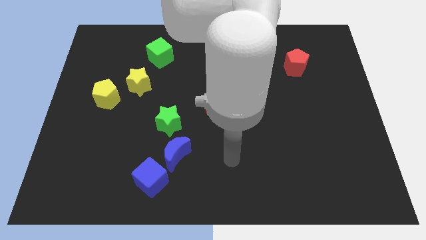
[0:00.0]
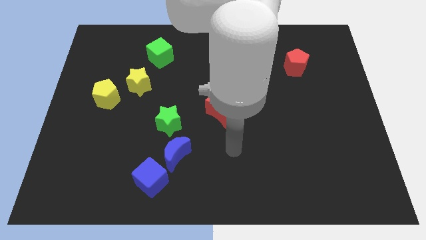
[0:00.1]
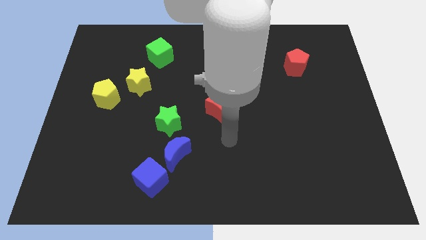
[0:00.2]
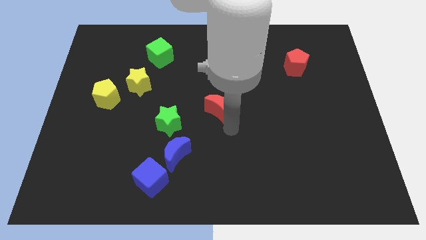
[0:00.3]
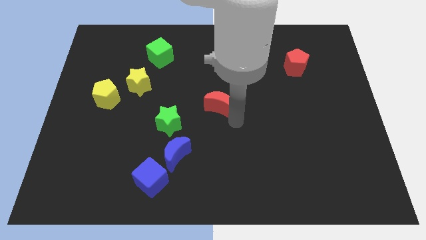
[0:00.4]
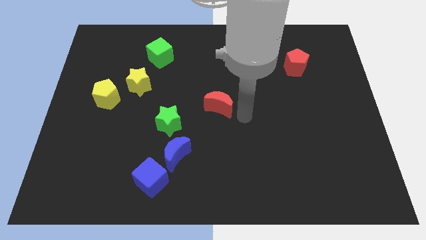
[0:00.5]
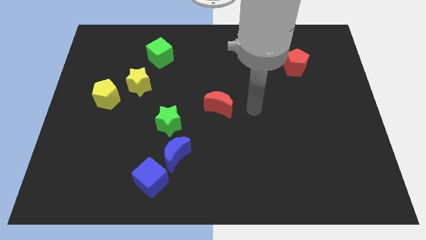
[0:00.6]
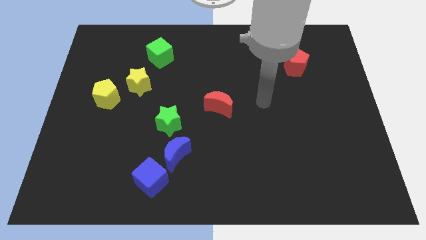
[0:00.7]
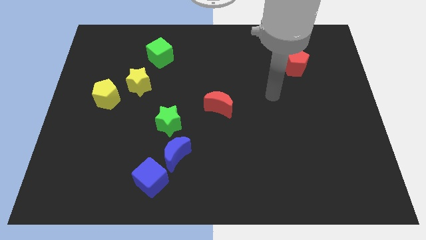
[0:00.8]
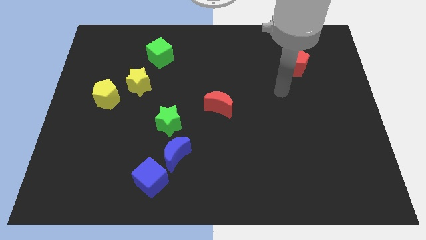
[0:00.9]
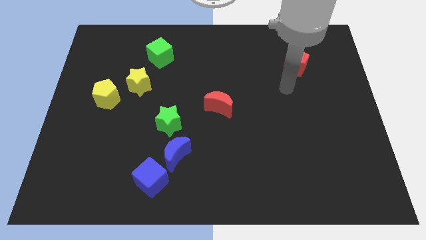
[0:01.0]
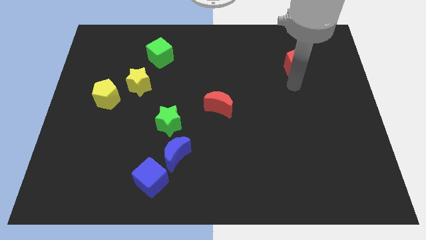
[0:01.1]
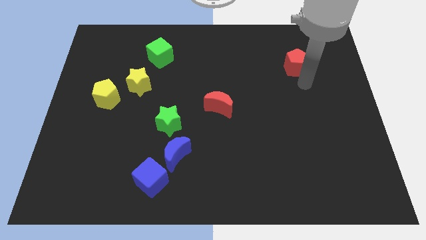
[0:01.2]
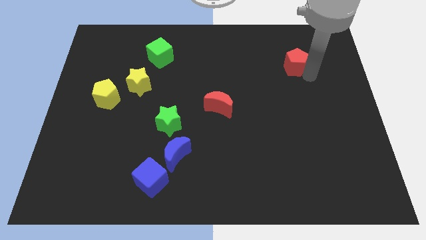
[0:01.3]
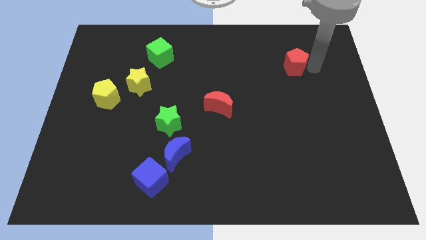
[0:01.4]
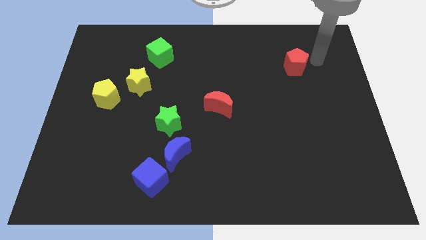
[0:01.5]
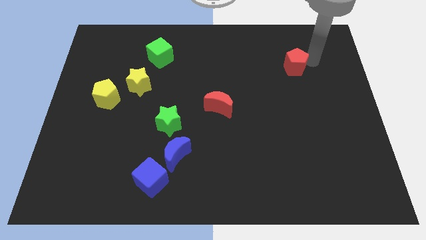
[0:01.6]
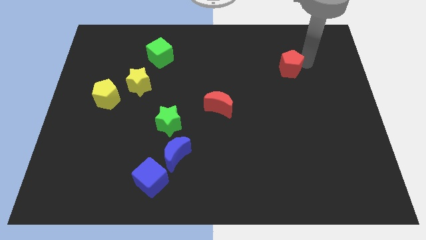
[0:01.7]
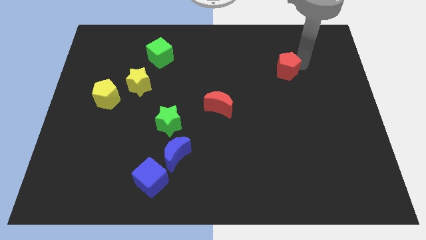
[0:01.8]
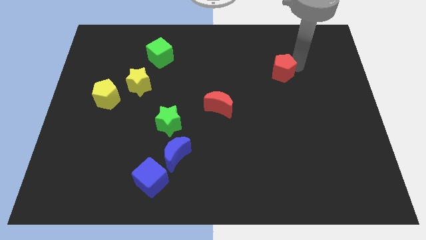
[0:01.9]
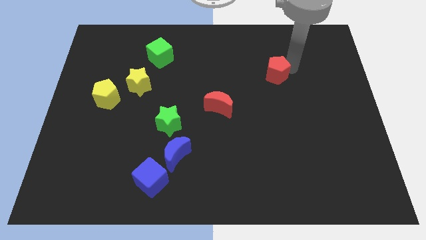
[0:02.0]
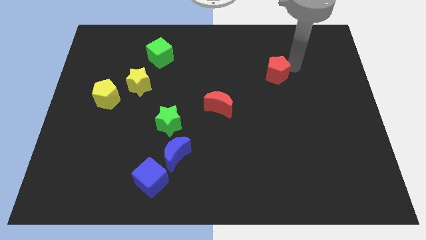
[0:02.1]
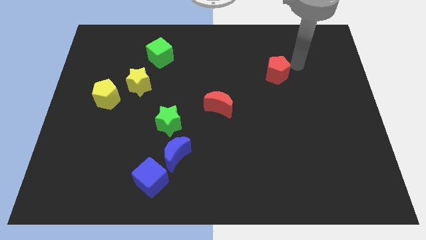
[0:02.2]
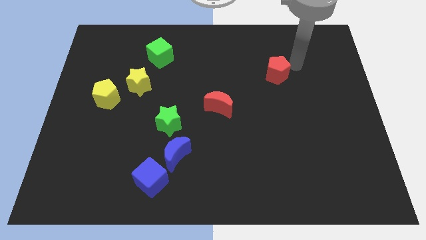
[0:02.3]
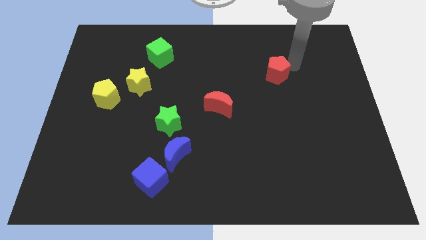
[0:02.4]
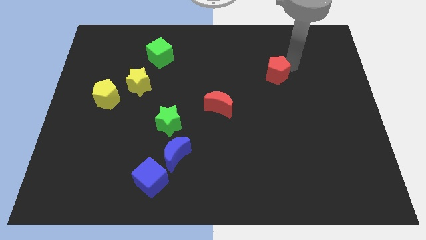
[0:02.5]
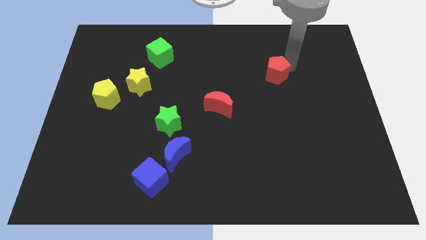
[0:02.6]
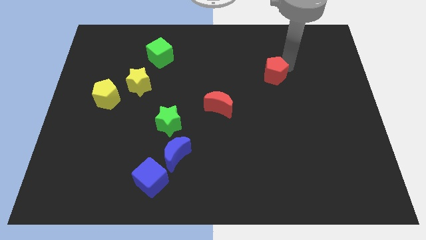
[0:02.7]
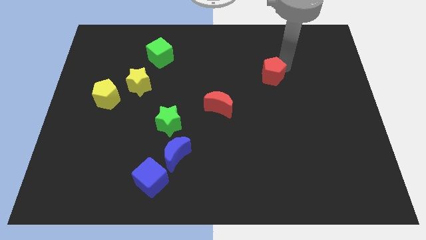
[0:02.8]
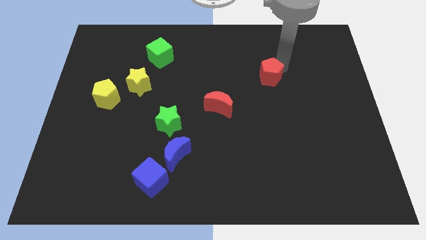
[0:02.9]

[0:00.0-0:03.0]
slide the red pentagon downwards and left diagonally a little

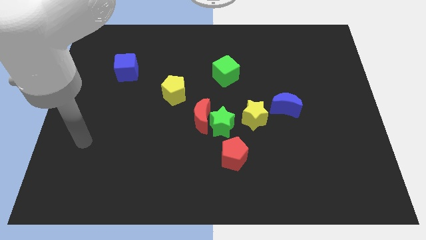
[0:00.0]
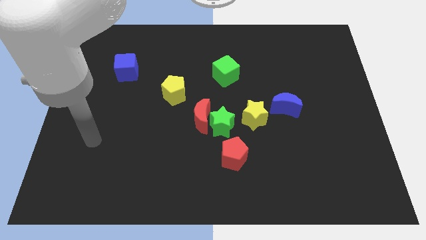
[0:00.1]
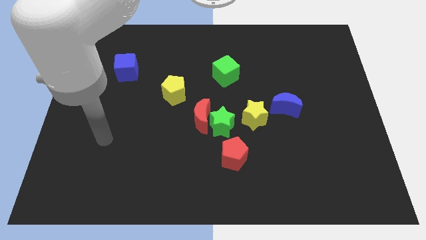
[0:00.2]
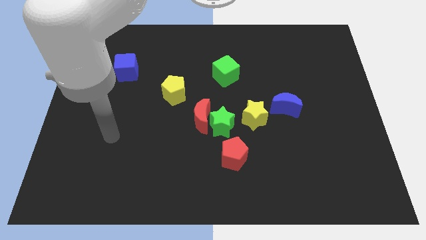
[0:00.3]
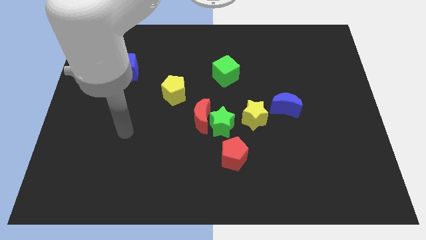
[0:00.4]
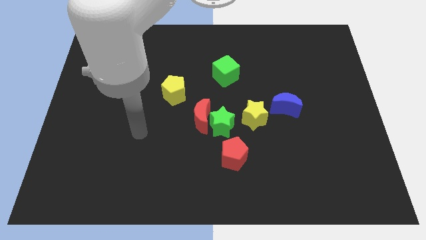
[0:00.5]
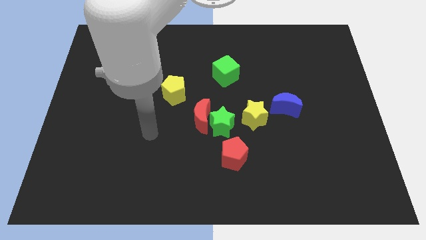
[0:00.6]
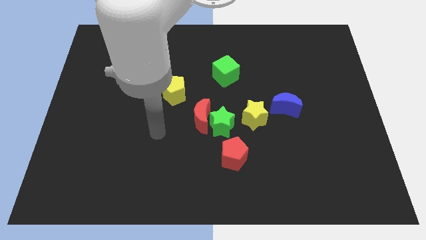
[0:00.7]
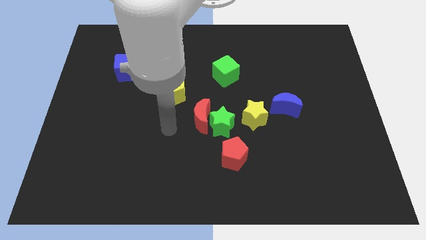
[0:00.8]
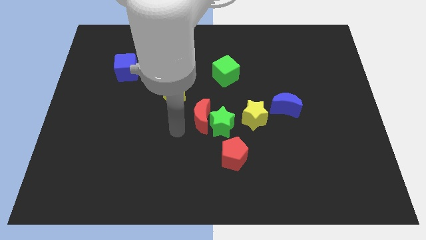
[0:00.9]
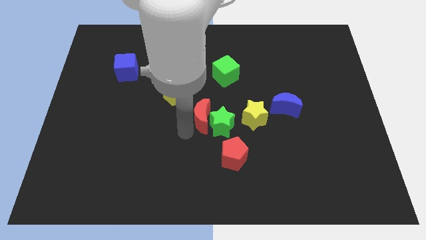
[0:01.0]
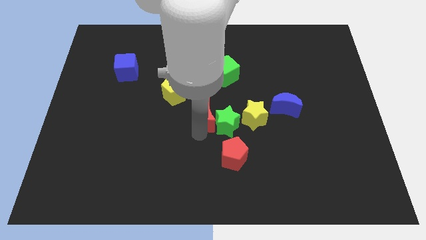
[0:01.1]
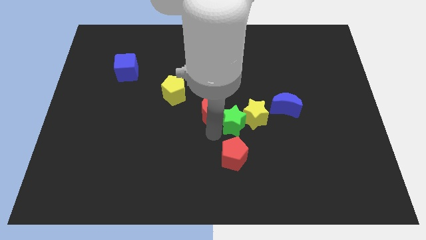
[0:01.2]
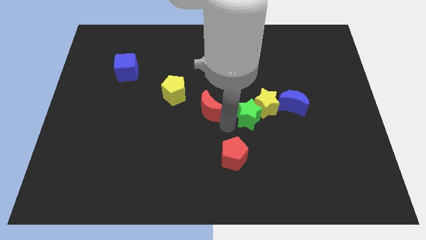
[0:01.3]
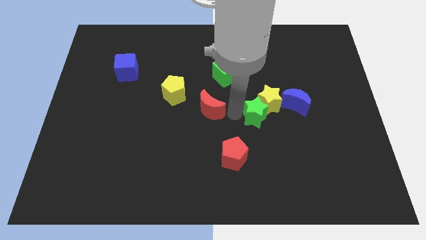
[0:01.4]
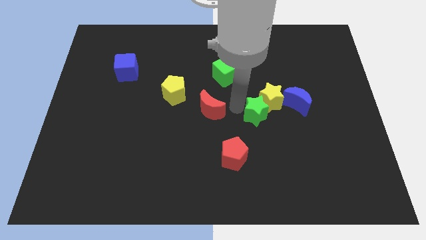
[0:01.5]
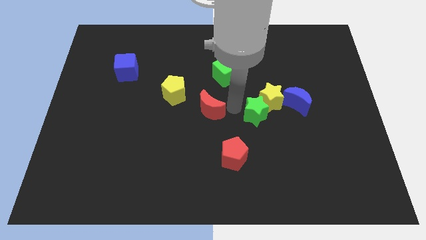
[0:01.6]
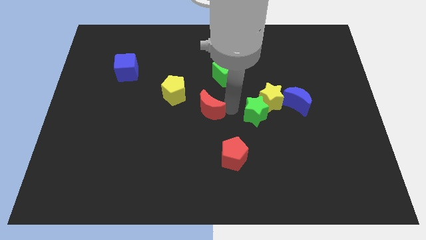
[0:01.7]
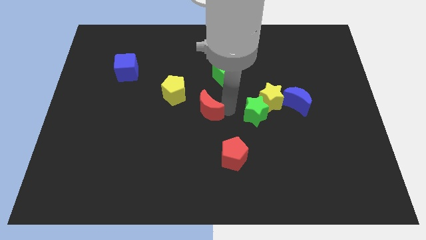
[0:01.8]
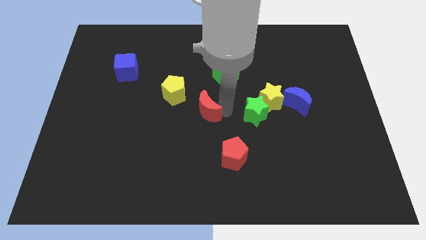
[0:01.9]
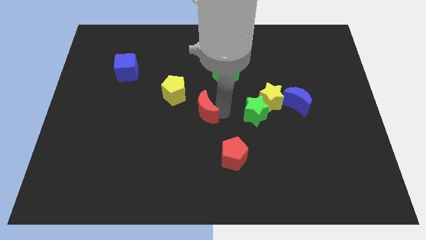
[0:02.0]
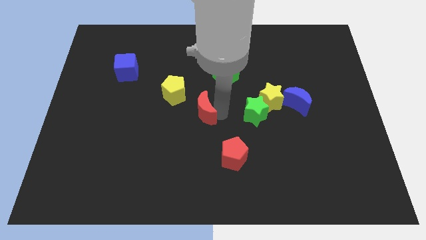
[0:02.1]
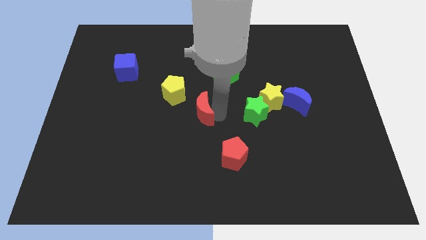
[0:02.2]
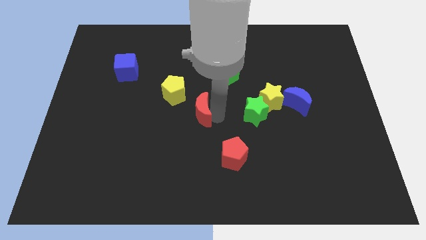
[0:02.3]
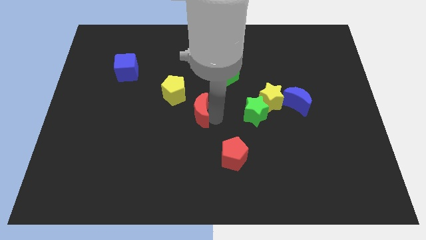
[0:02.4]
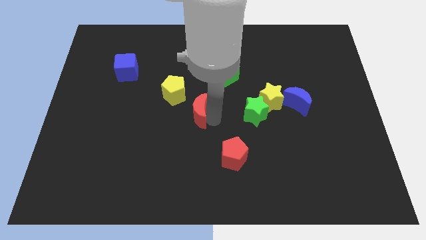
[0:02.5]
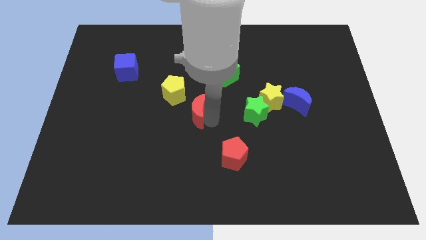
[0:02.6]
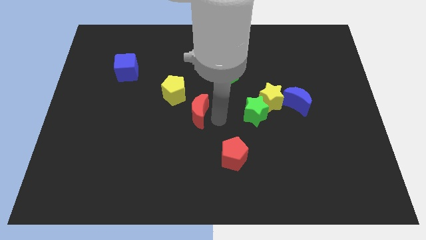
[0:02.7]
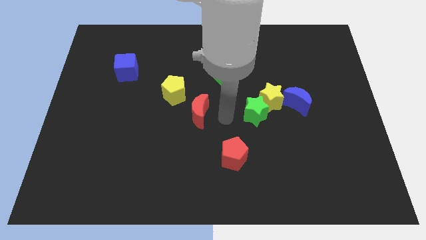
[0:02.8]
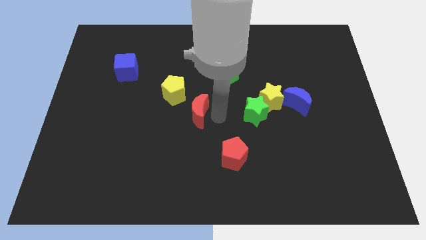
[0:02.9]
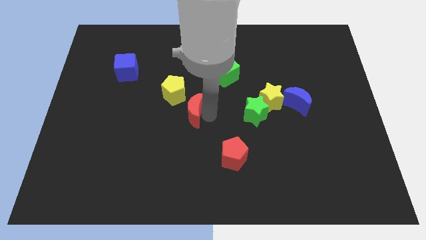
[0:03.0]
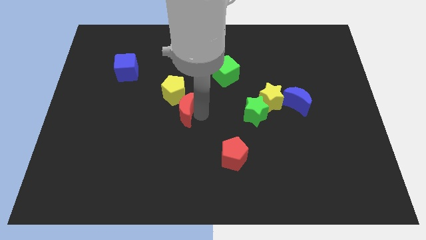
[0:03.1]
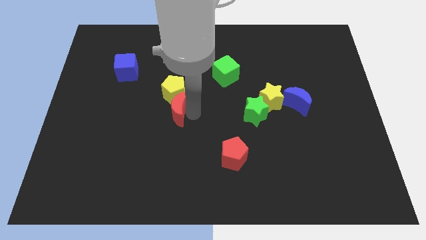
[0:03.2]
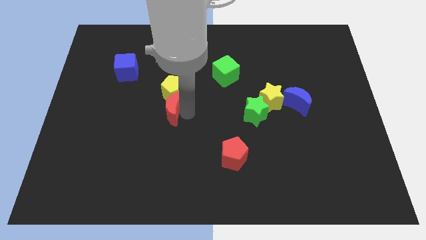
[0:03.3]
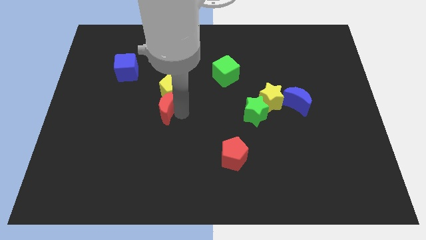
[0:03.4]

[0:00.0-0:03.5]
slide the red moon up and to the left diagonally somewhat

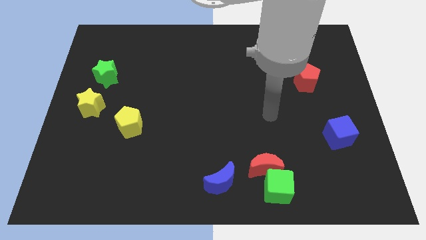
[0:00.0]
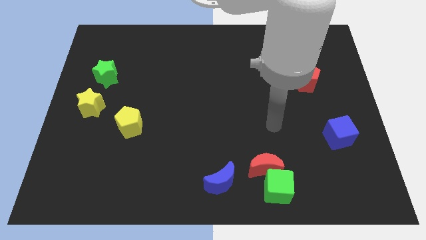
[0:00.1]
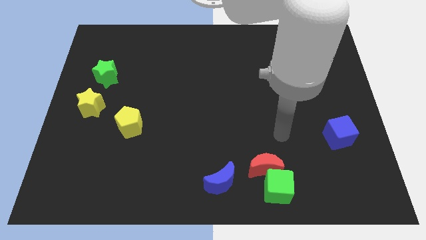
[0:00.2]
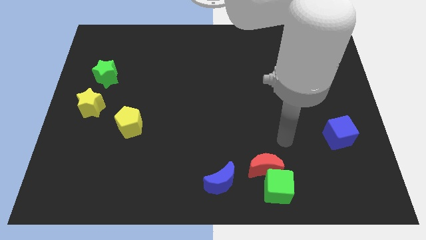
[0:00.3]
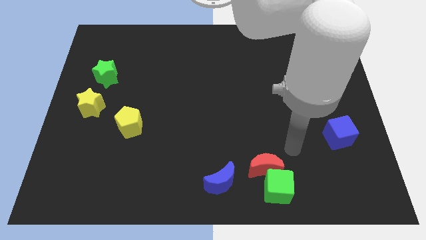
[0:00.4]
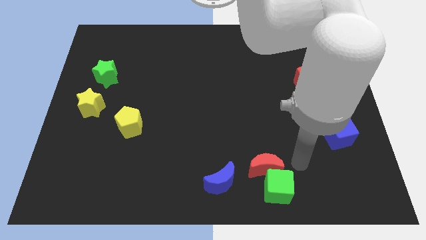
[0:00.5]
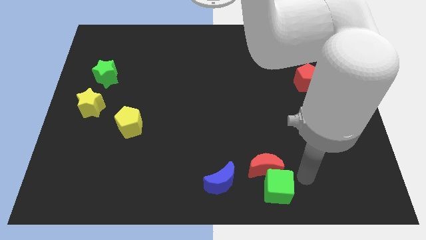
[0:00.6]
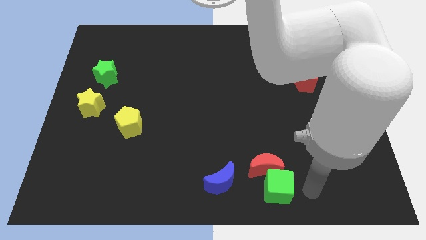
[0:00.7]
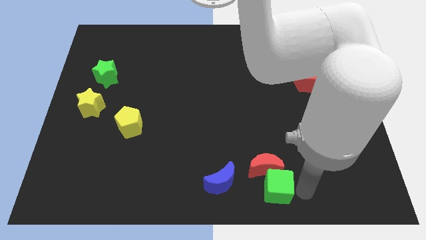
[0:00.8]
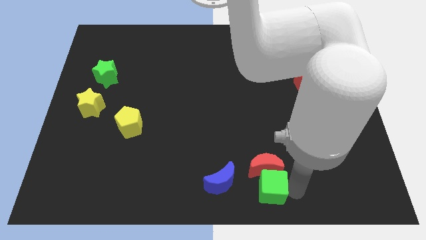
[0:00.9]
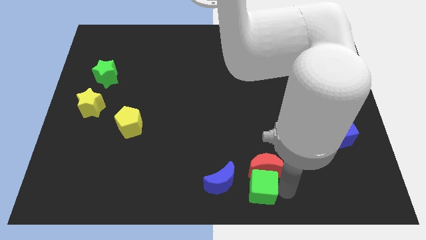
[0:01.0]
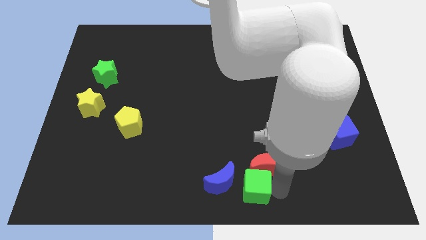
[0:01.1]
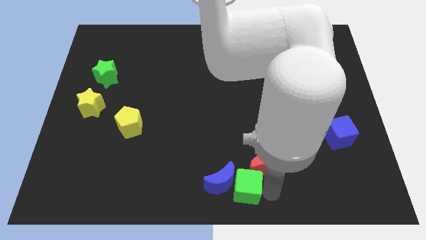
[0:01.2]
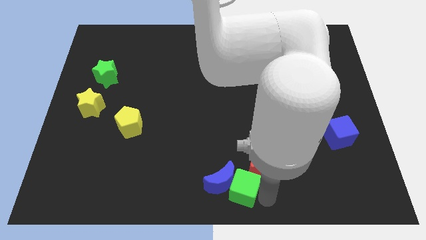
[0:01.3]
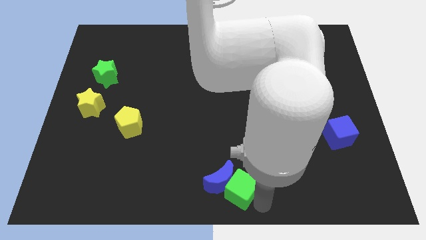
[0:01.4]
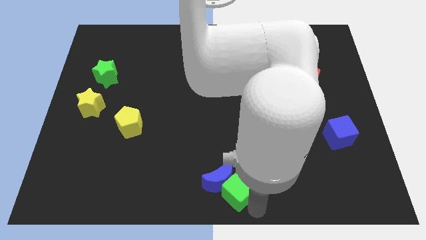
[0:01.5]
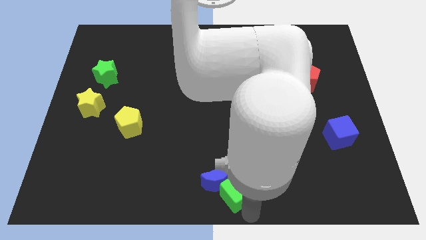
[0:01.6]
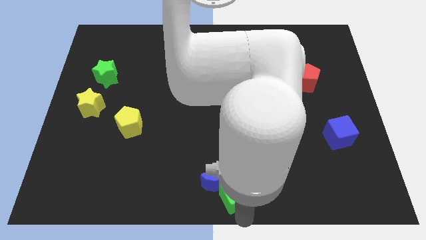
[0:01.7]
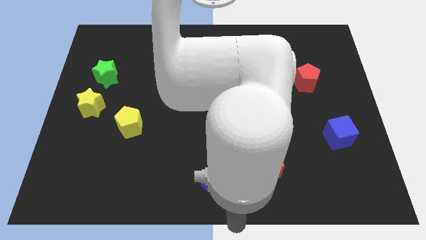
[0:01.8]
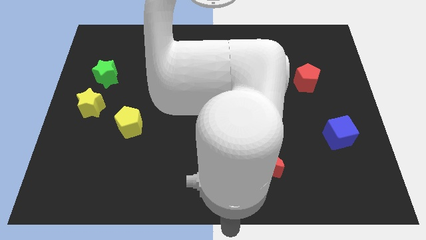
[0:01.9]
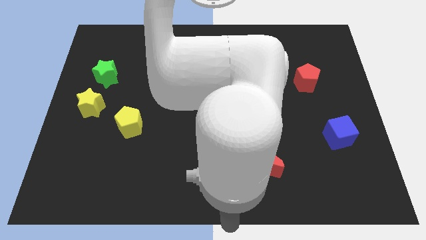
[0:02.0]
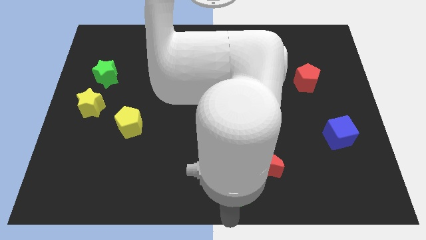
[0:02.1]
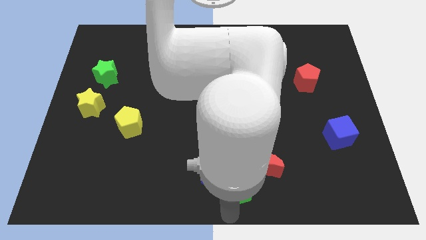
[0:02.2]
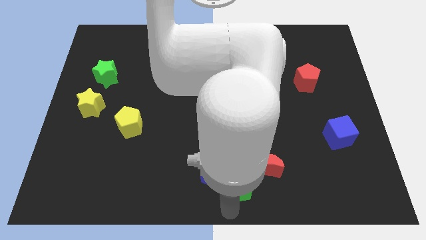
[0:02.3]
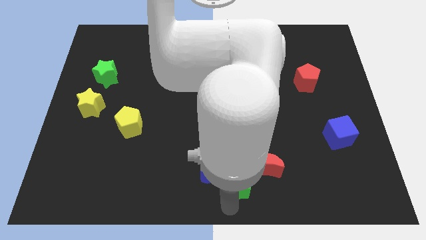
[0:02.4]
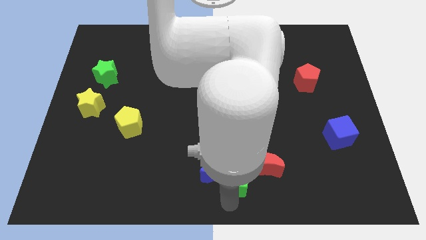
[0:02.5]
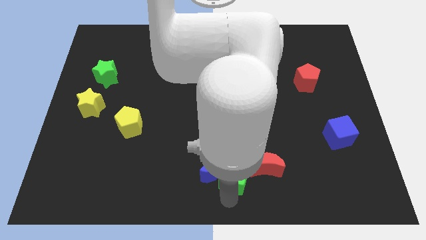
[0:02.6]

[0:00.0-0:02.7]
slide the green cube diagonally up and left a little bit
